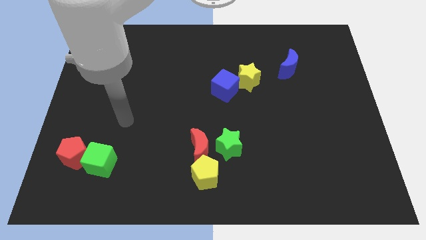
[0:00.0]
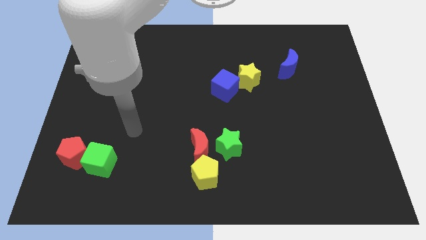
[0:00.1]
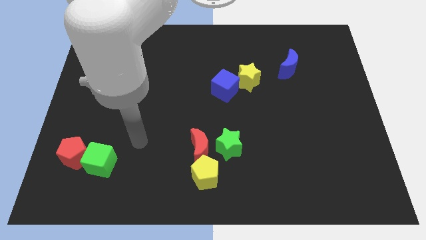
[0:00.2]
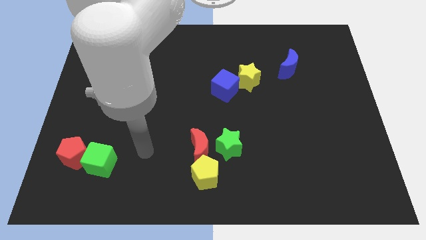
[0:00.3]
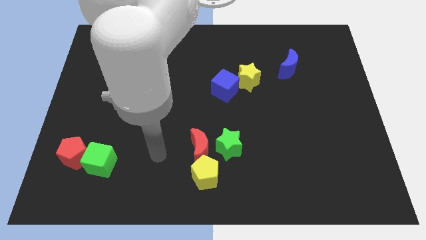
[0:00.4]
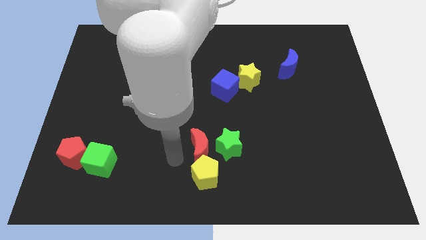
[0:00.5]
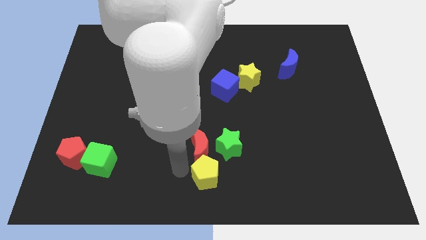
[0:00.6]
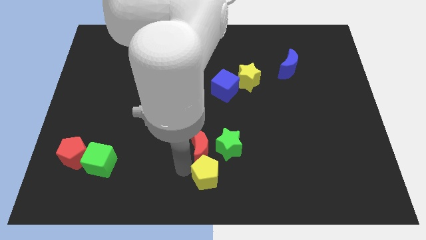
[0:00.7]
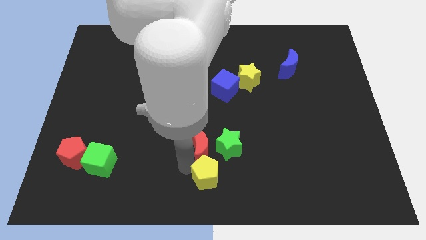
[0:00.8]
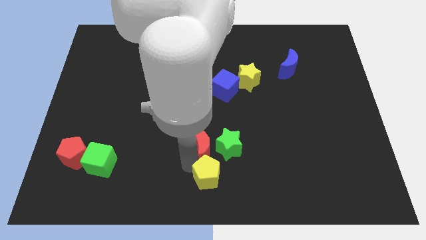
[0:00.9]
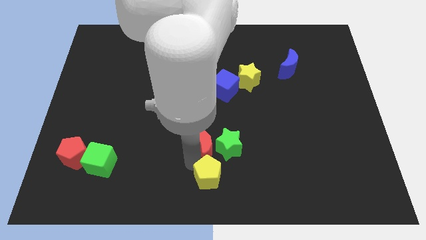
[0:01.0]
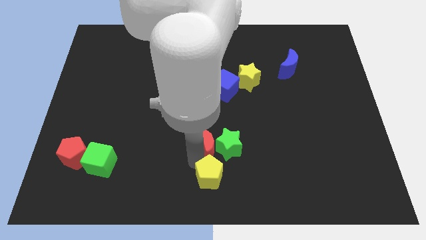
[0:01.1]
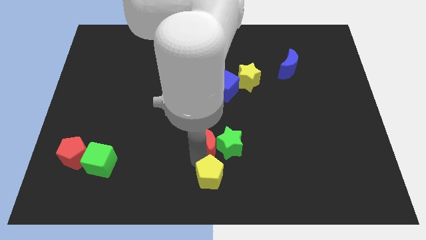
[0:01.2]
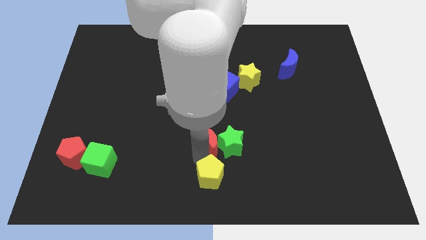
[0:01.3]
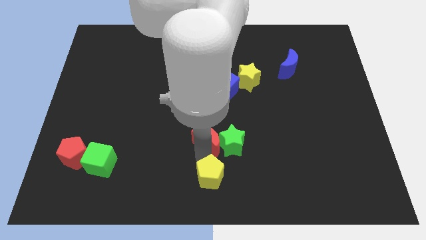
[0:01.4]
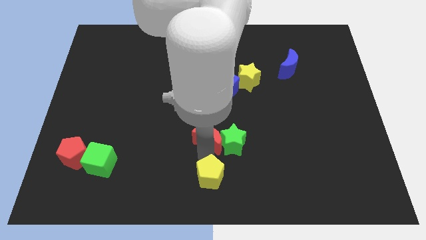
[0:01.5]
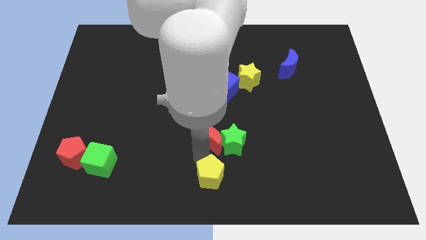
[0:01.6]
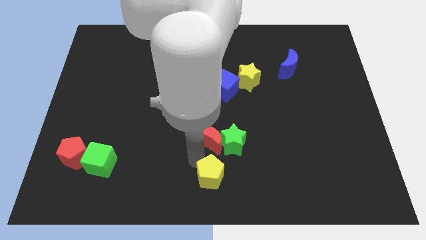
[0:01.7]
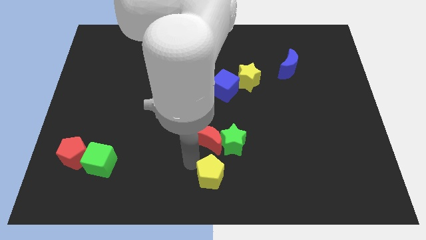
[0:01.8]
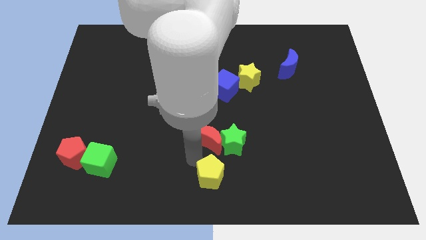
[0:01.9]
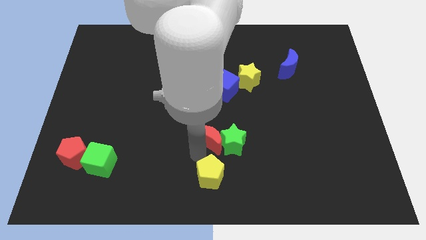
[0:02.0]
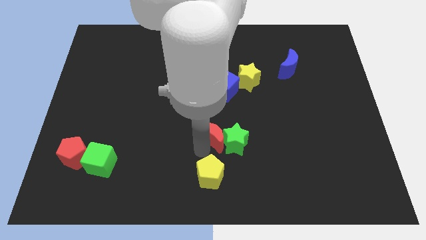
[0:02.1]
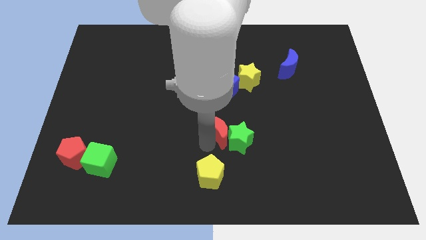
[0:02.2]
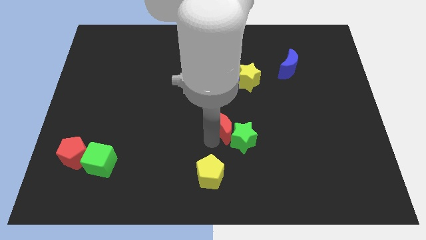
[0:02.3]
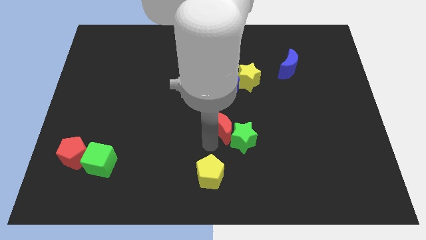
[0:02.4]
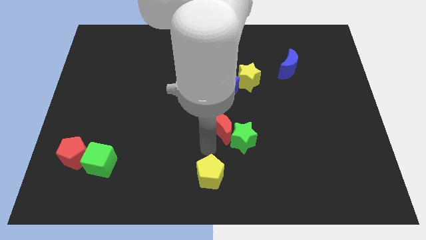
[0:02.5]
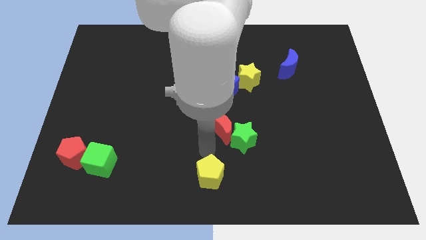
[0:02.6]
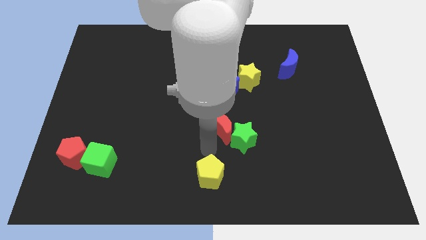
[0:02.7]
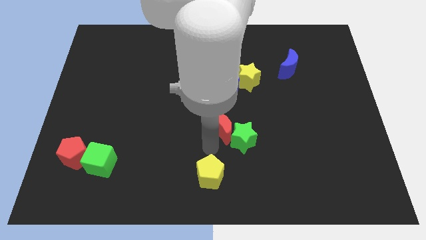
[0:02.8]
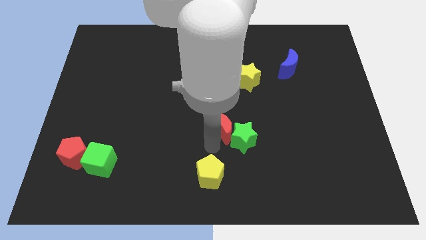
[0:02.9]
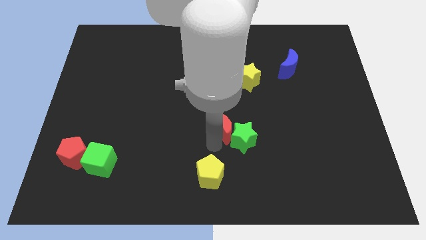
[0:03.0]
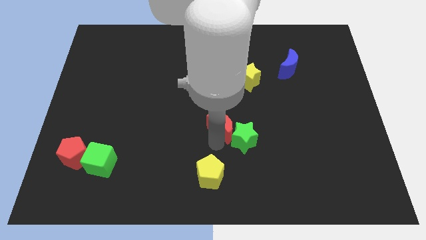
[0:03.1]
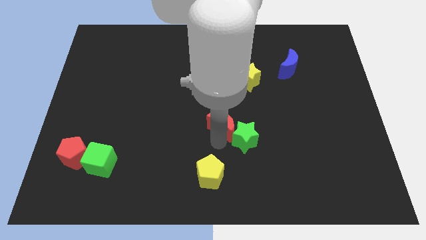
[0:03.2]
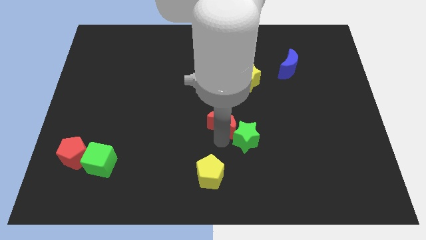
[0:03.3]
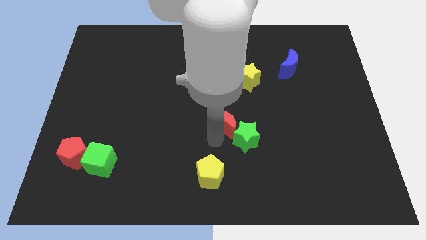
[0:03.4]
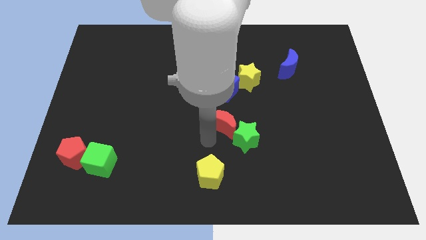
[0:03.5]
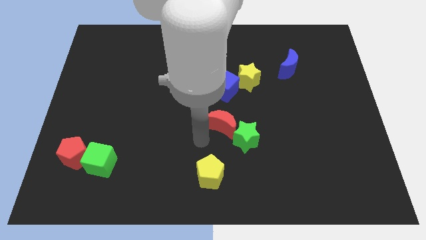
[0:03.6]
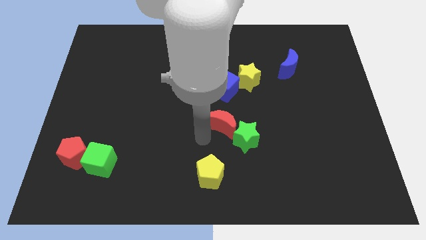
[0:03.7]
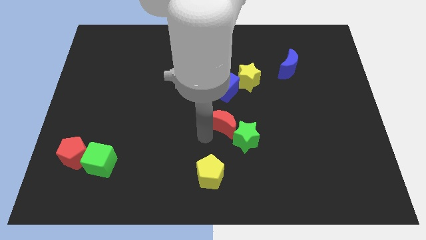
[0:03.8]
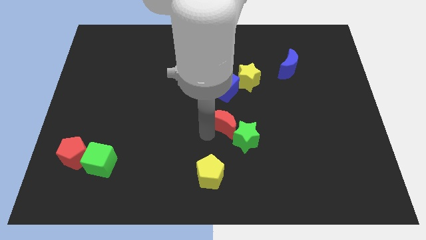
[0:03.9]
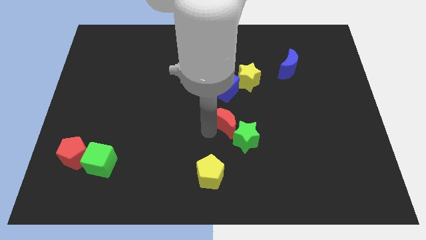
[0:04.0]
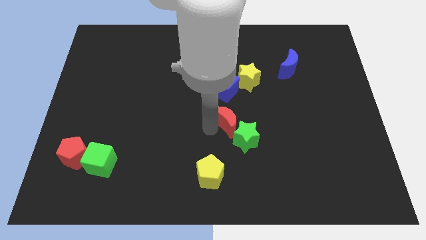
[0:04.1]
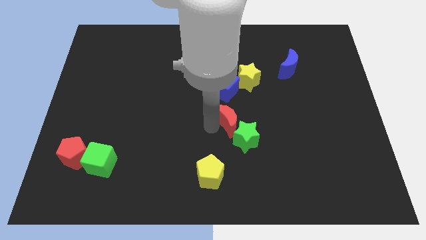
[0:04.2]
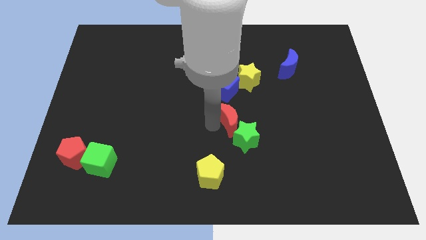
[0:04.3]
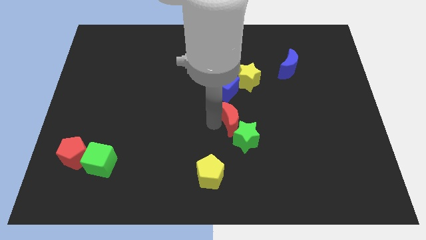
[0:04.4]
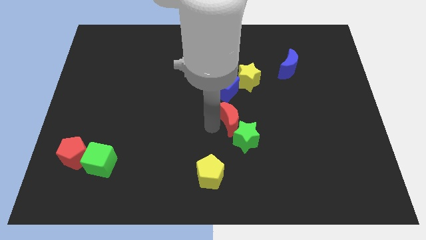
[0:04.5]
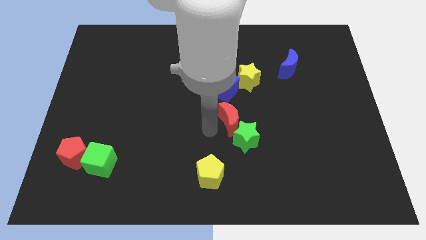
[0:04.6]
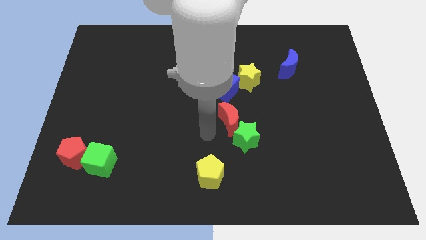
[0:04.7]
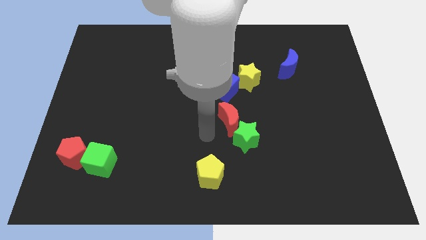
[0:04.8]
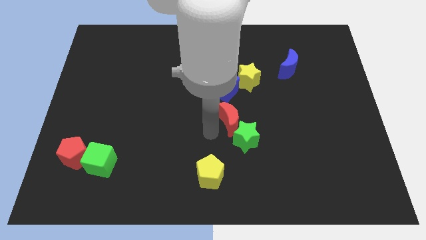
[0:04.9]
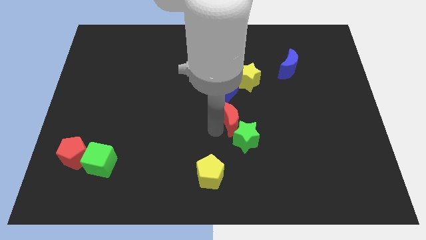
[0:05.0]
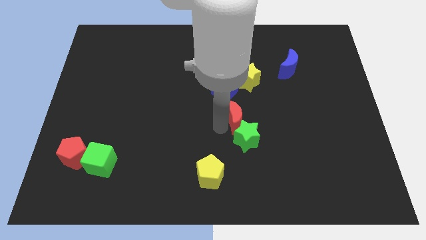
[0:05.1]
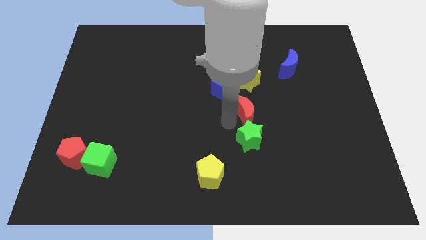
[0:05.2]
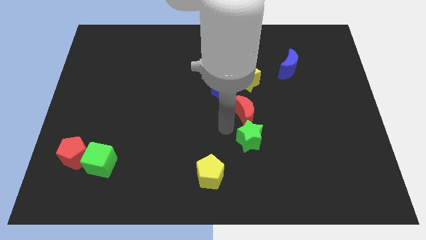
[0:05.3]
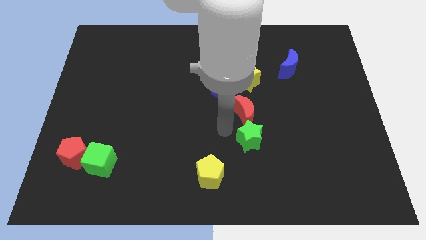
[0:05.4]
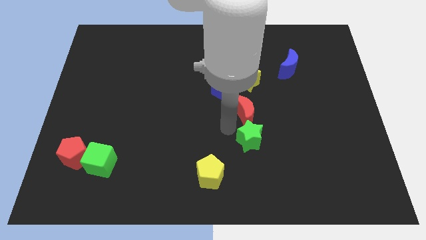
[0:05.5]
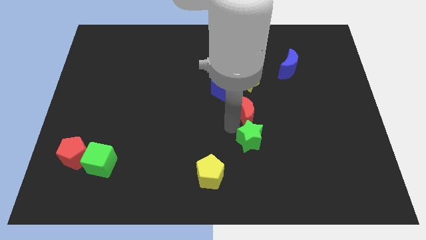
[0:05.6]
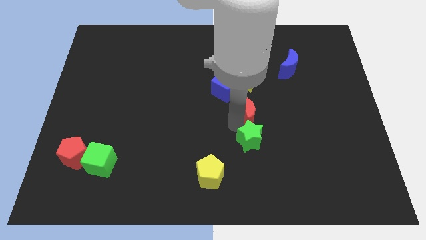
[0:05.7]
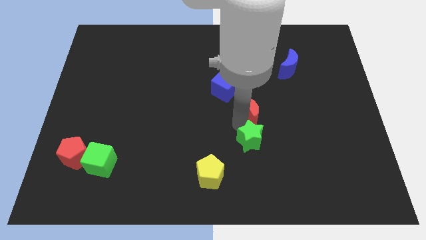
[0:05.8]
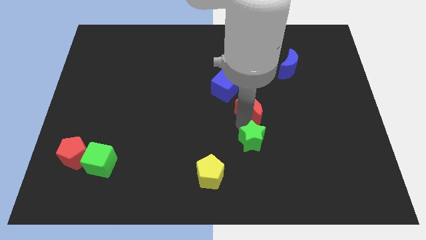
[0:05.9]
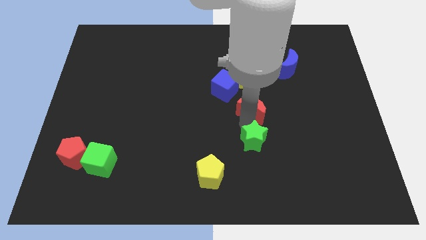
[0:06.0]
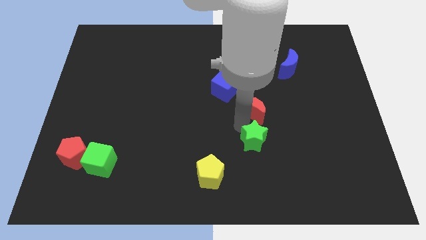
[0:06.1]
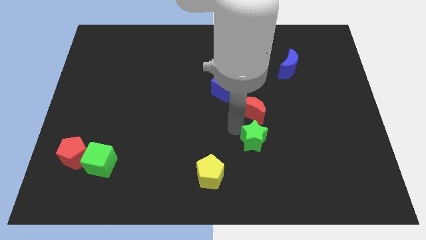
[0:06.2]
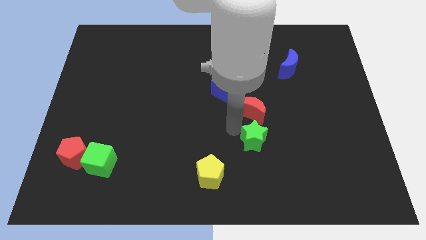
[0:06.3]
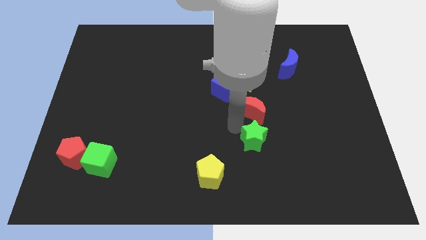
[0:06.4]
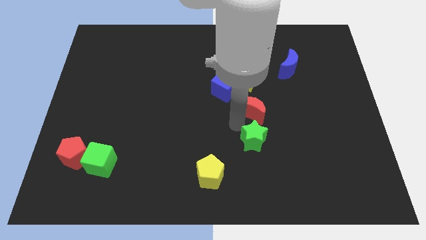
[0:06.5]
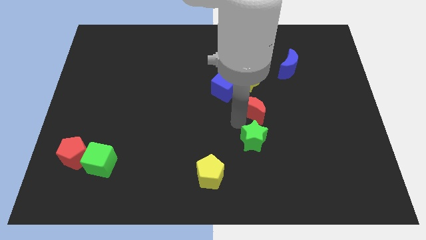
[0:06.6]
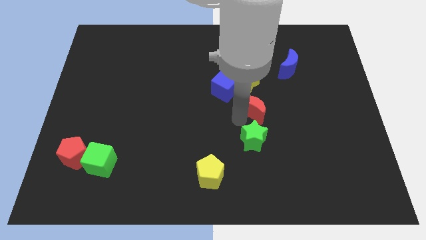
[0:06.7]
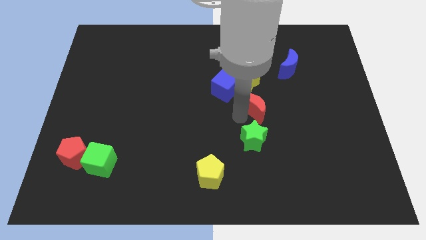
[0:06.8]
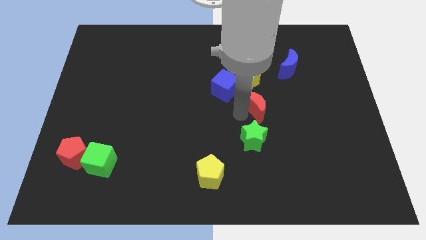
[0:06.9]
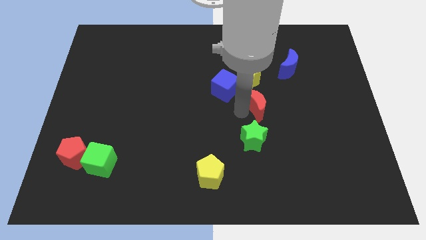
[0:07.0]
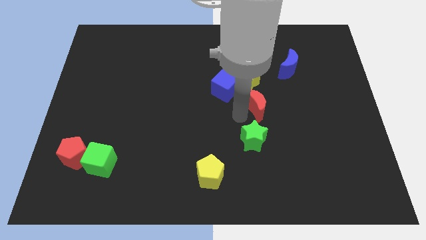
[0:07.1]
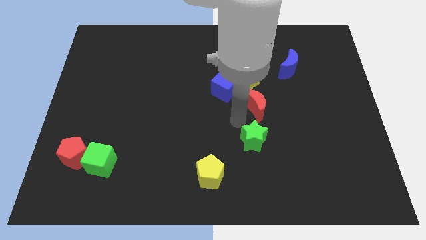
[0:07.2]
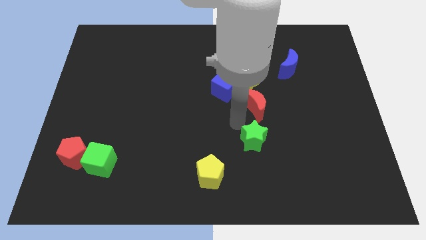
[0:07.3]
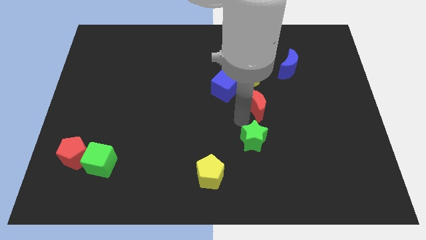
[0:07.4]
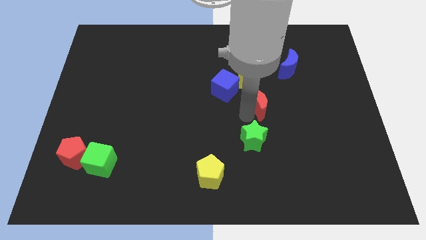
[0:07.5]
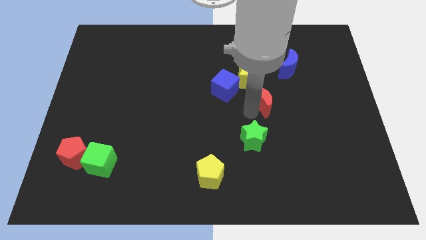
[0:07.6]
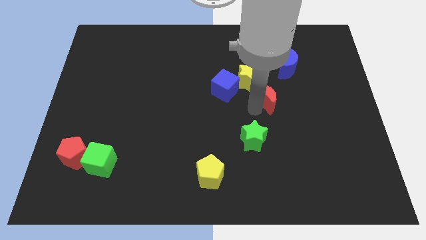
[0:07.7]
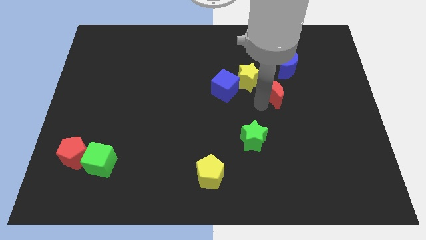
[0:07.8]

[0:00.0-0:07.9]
push the red moon just right of the yellow star
